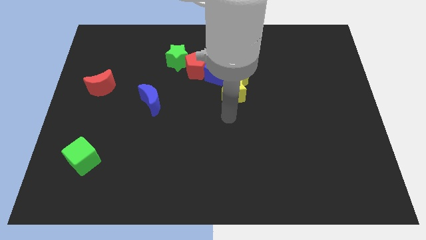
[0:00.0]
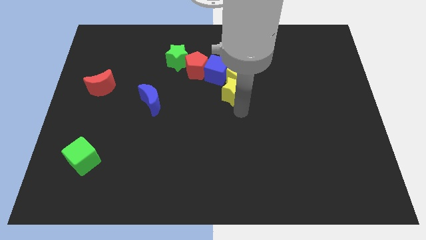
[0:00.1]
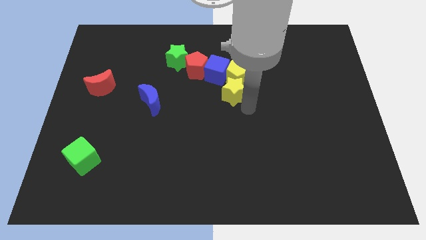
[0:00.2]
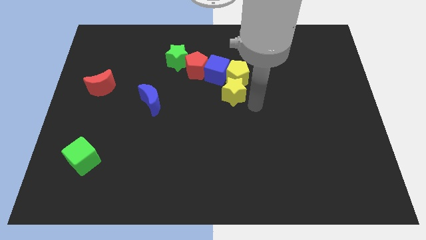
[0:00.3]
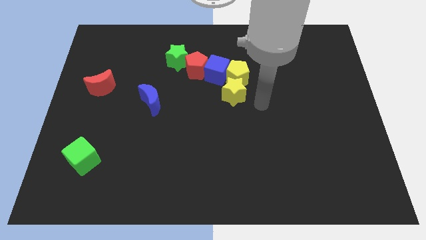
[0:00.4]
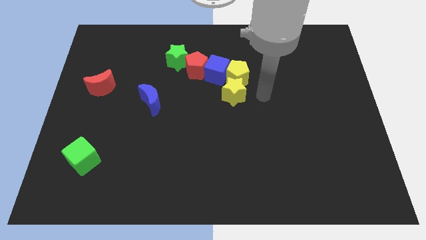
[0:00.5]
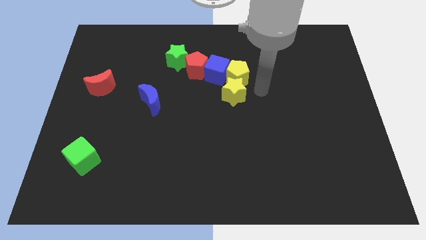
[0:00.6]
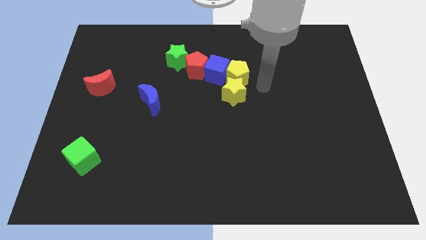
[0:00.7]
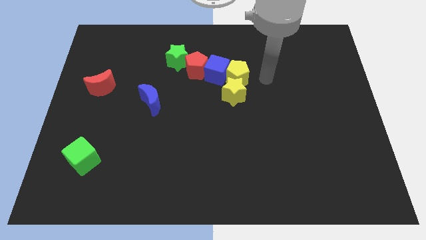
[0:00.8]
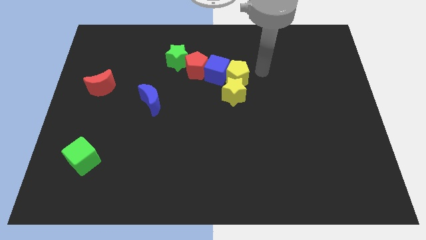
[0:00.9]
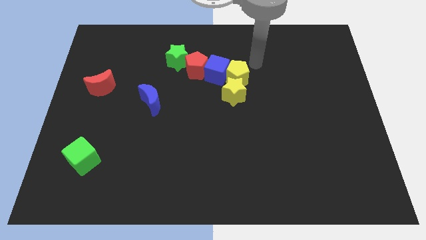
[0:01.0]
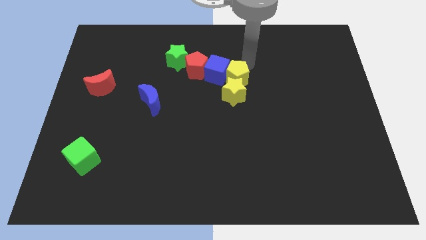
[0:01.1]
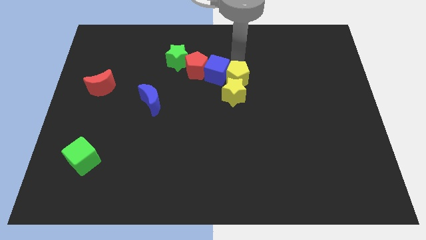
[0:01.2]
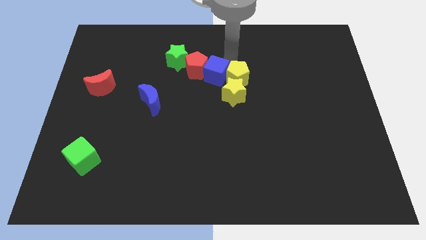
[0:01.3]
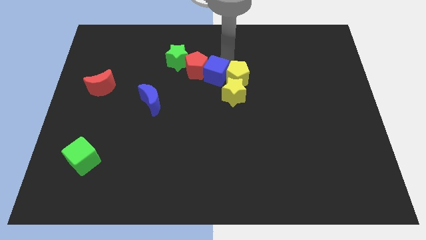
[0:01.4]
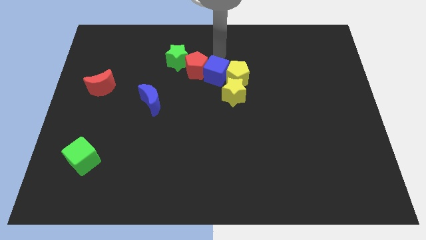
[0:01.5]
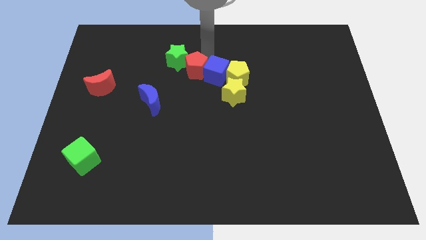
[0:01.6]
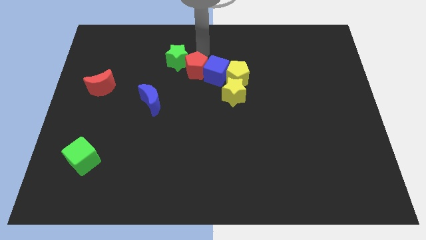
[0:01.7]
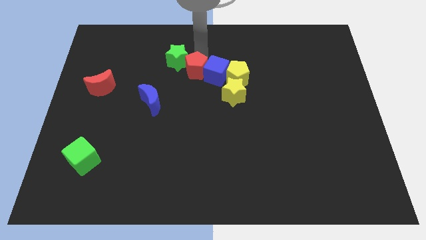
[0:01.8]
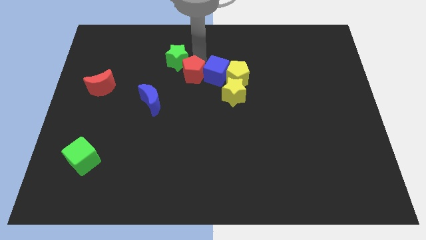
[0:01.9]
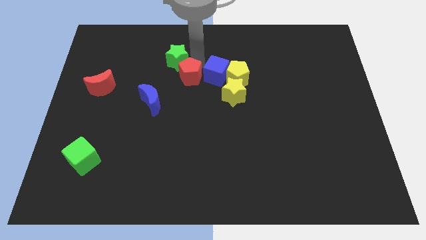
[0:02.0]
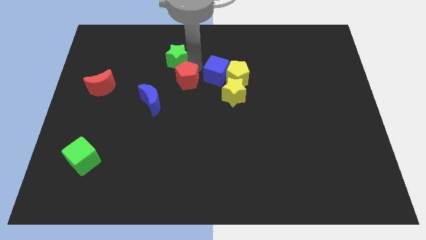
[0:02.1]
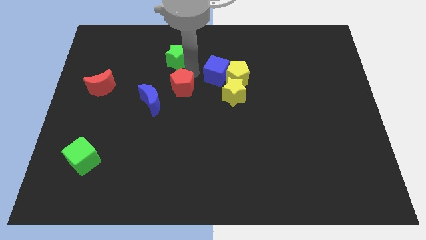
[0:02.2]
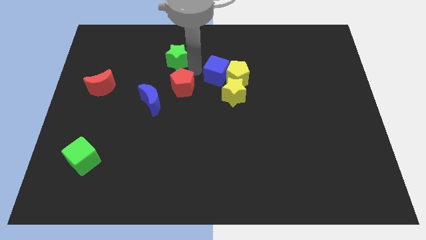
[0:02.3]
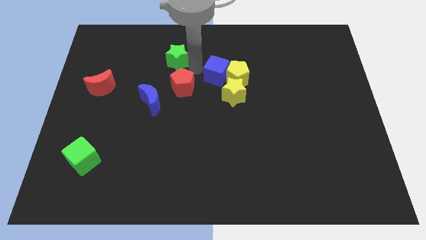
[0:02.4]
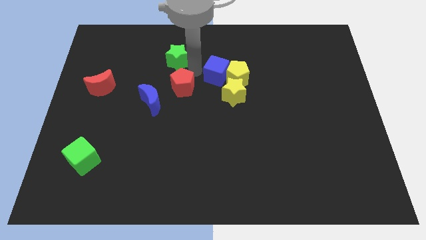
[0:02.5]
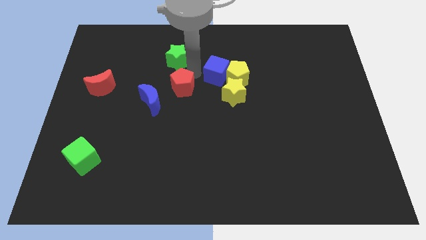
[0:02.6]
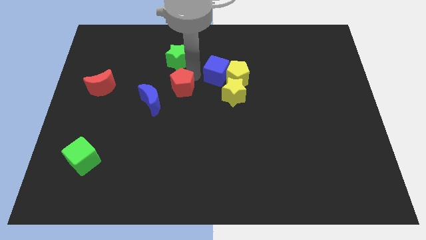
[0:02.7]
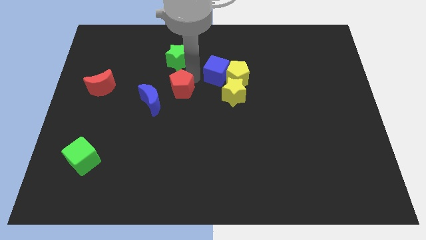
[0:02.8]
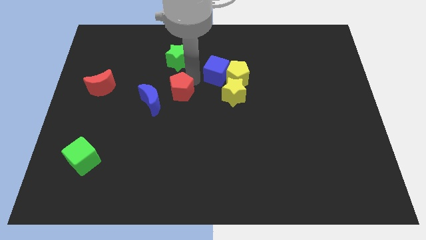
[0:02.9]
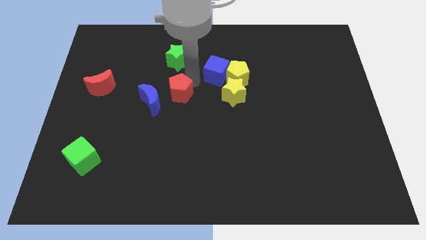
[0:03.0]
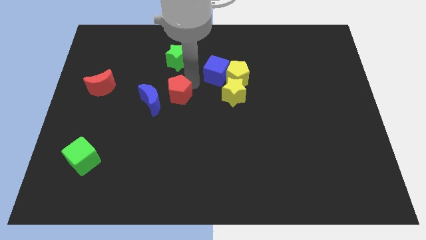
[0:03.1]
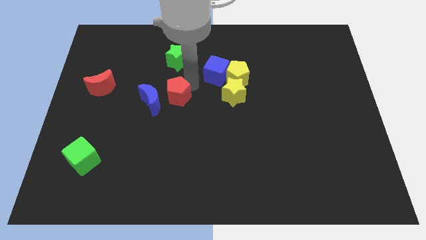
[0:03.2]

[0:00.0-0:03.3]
separate the red pentagon from the blue cube and green star

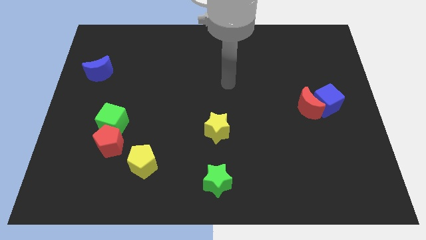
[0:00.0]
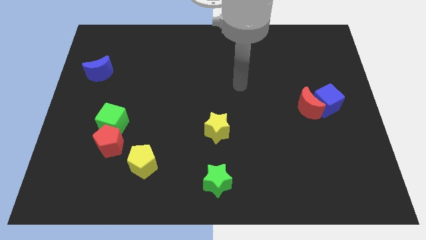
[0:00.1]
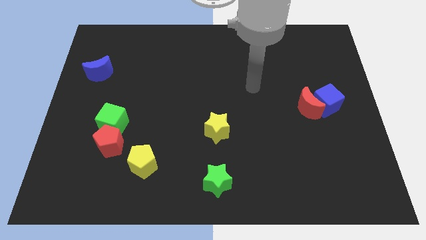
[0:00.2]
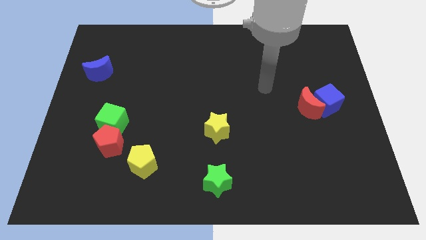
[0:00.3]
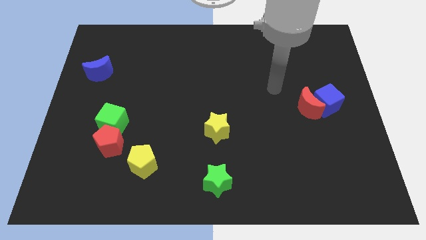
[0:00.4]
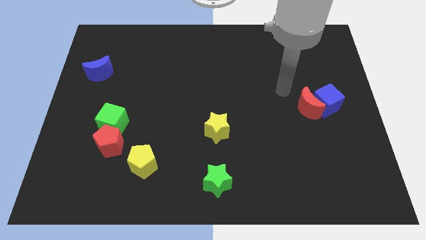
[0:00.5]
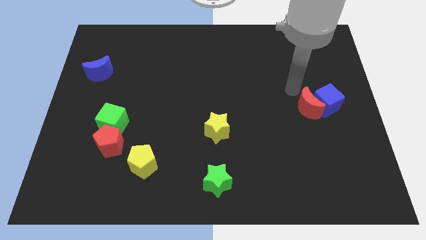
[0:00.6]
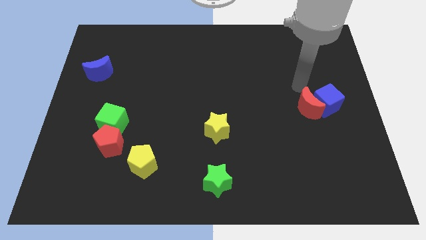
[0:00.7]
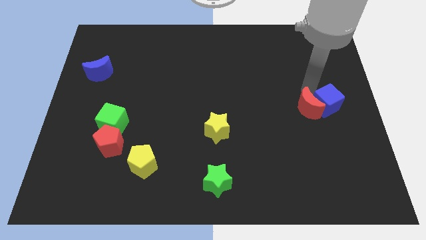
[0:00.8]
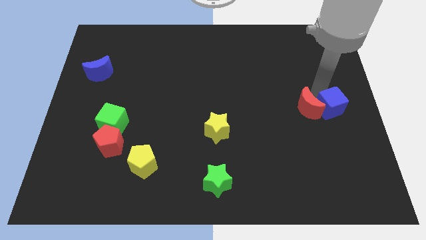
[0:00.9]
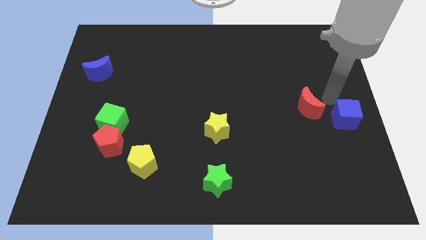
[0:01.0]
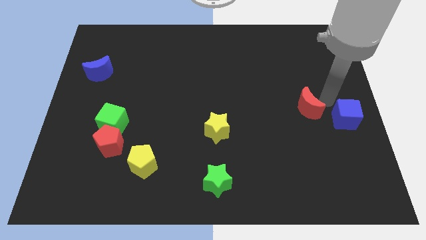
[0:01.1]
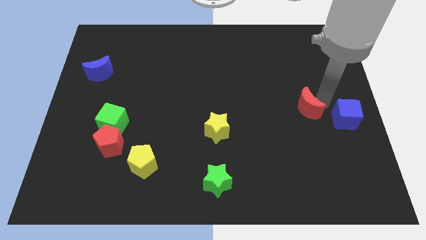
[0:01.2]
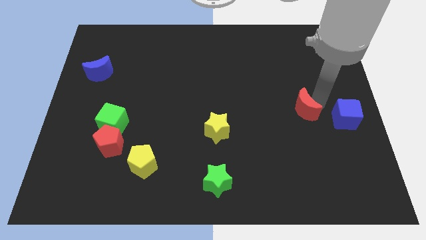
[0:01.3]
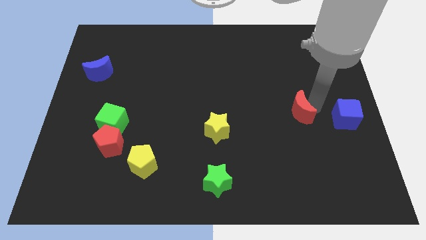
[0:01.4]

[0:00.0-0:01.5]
move the red moon away from the blue cube

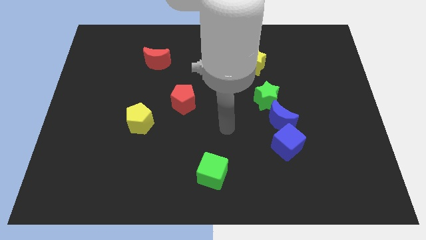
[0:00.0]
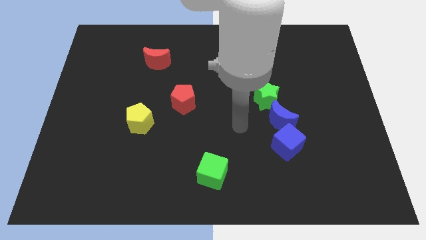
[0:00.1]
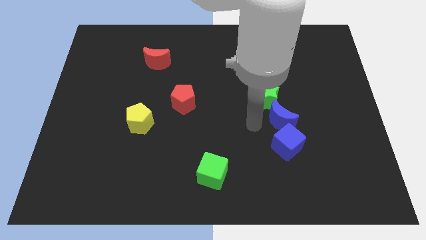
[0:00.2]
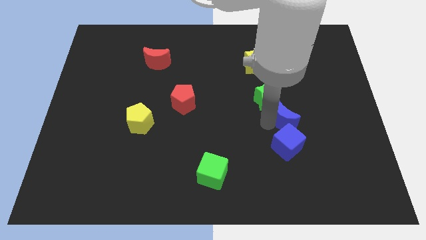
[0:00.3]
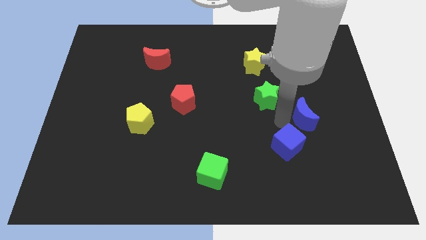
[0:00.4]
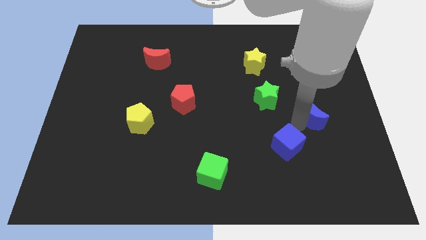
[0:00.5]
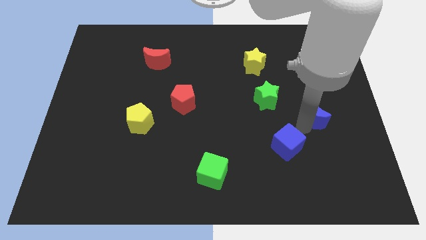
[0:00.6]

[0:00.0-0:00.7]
move the blue cube away from the blue moon

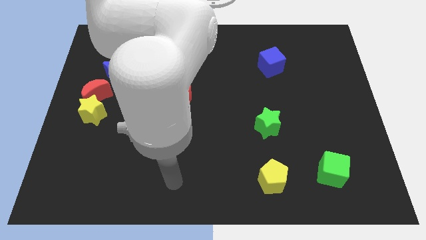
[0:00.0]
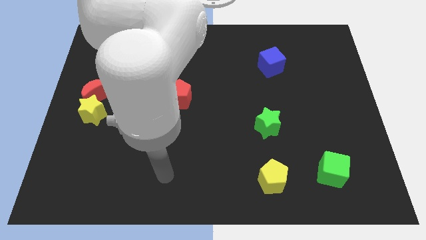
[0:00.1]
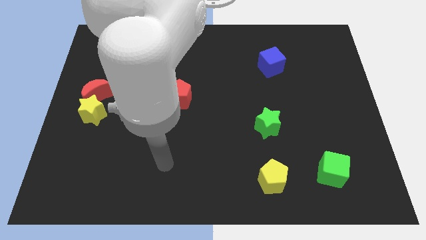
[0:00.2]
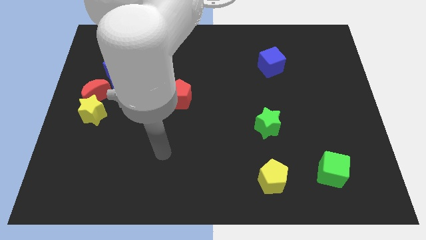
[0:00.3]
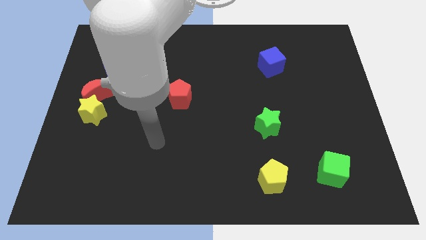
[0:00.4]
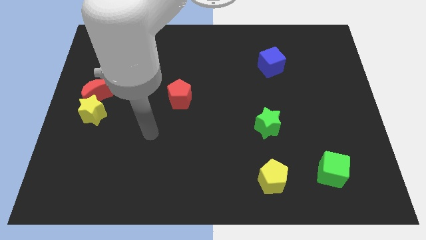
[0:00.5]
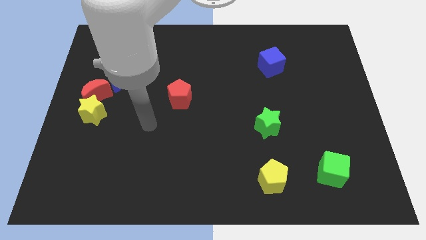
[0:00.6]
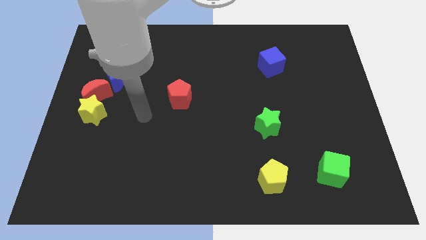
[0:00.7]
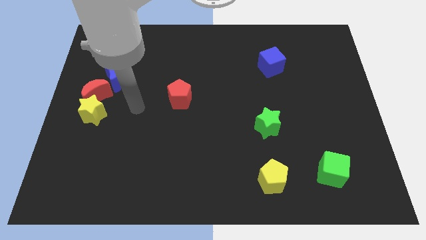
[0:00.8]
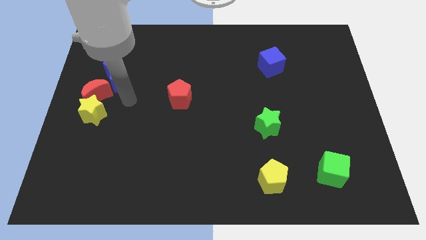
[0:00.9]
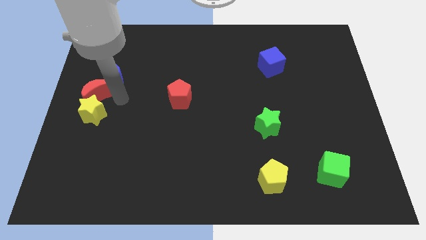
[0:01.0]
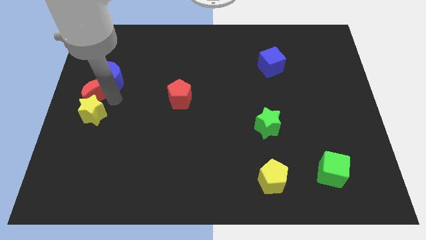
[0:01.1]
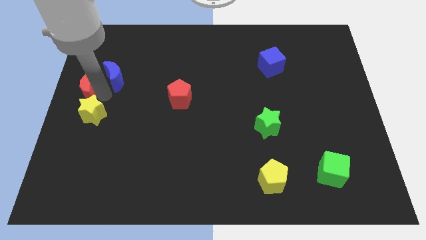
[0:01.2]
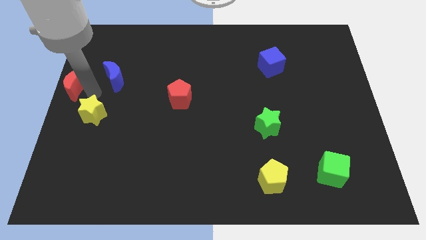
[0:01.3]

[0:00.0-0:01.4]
pull the yellow star apart from the red moon

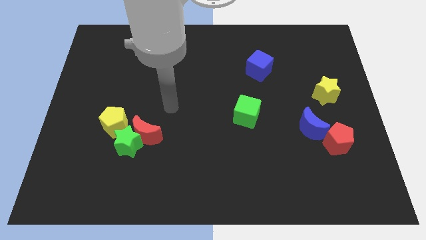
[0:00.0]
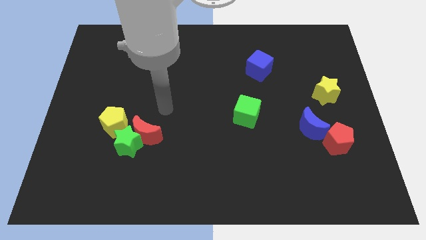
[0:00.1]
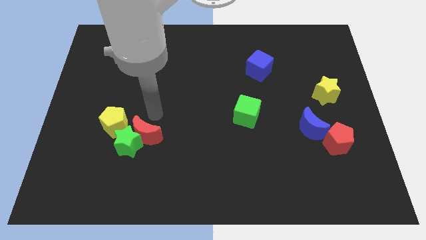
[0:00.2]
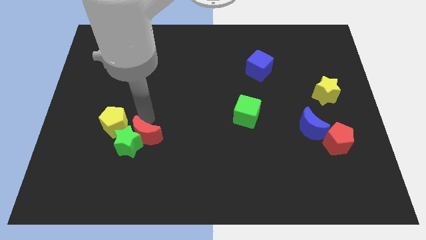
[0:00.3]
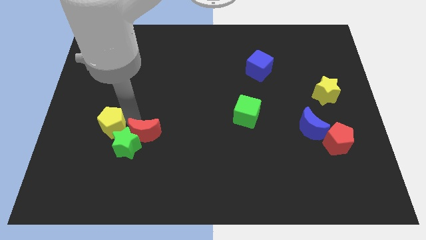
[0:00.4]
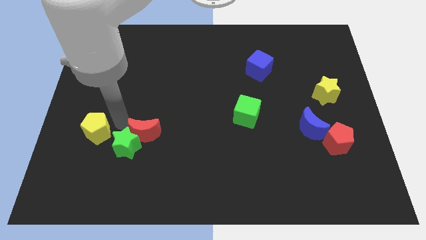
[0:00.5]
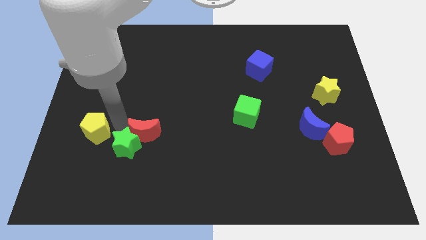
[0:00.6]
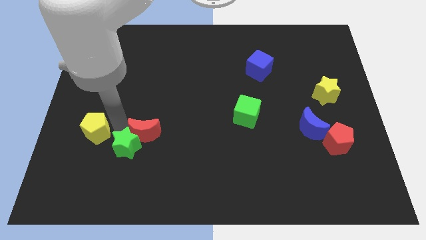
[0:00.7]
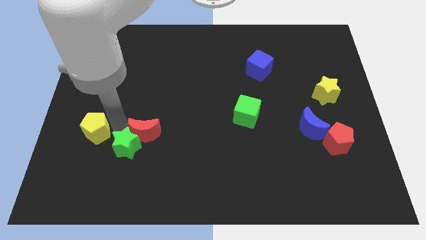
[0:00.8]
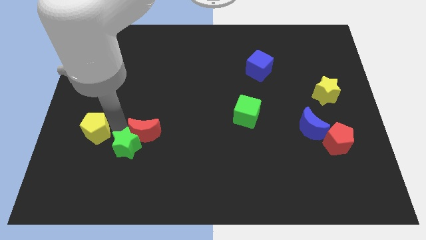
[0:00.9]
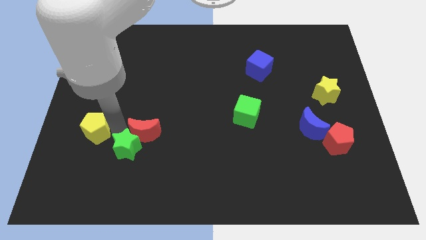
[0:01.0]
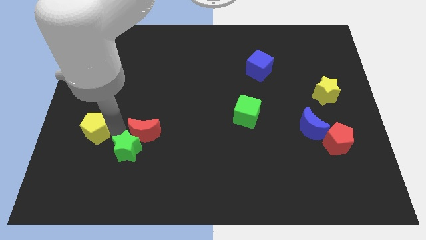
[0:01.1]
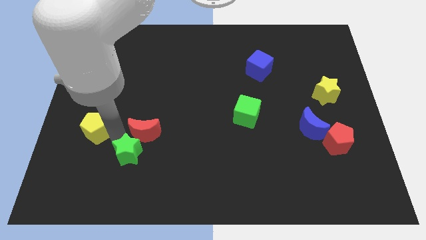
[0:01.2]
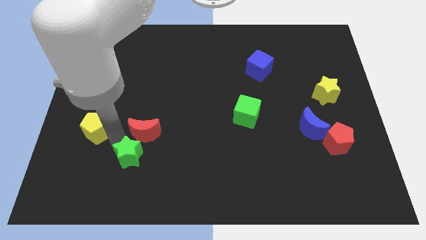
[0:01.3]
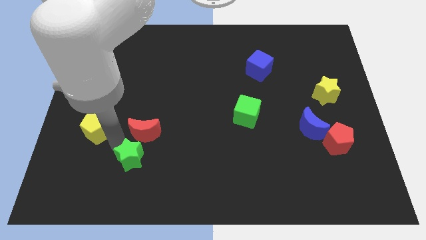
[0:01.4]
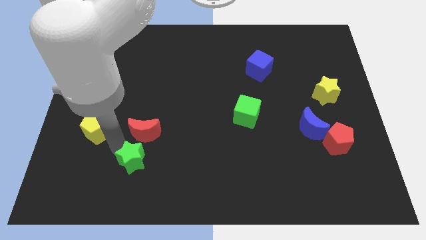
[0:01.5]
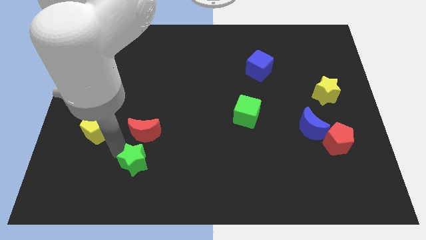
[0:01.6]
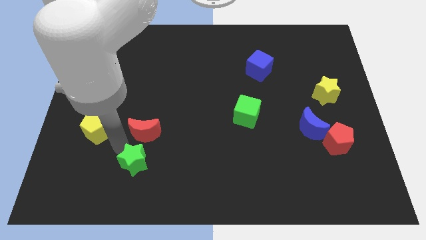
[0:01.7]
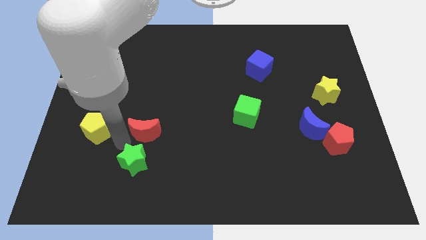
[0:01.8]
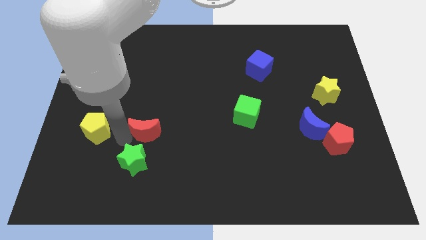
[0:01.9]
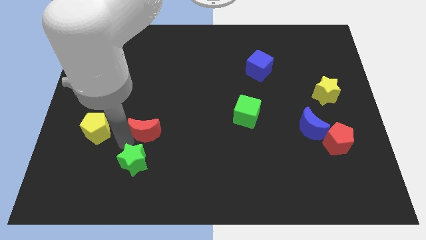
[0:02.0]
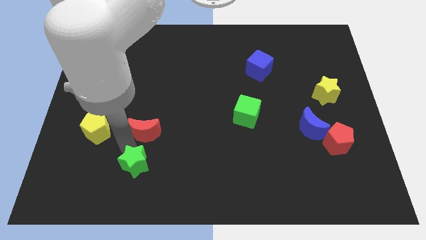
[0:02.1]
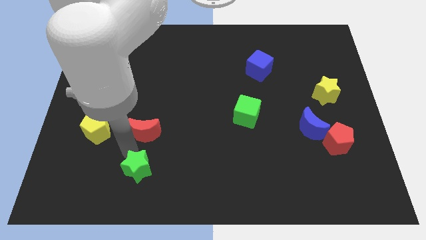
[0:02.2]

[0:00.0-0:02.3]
pull the green star apart from the red moon and yellow pentagon
